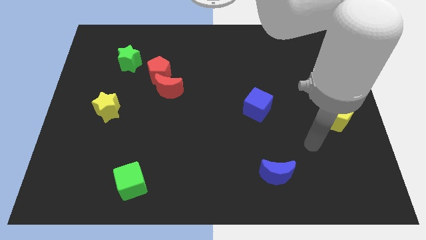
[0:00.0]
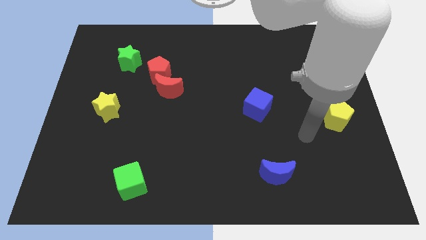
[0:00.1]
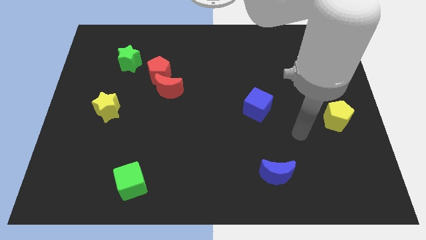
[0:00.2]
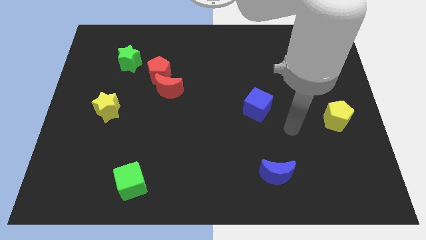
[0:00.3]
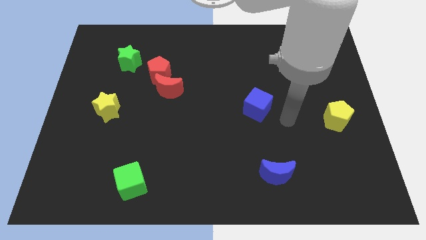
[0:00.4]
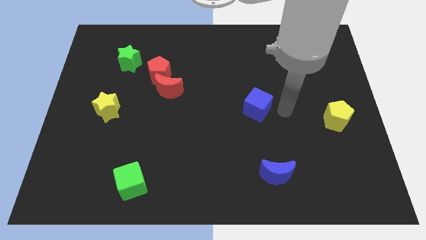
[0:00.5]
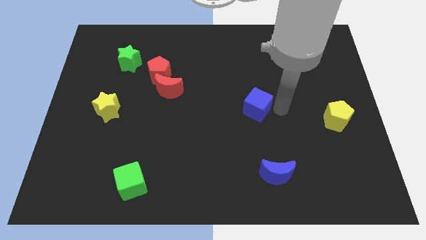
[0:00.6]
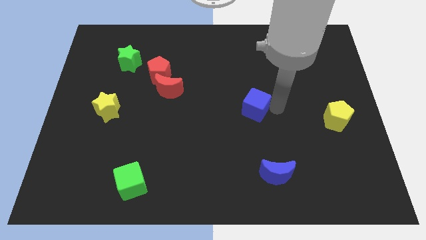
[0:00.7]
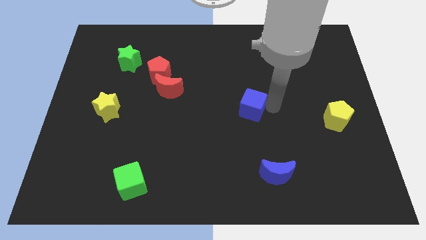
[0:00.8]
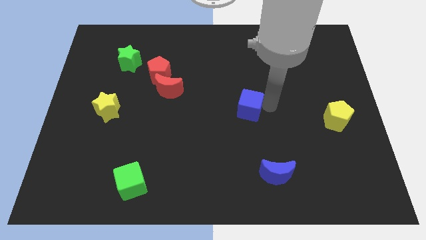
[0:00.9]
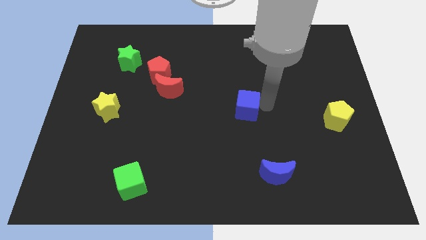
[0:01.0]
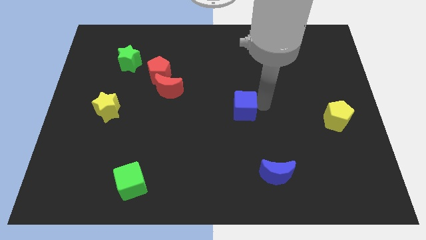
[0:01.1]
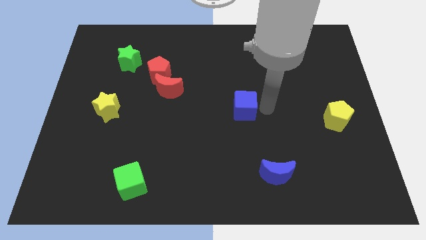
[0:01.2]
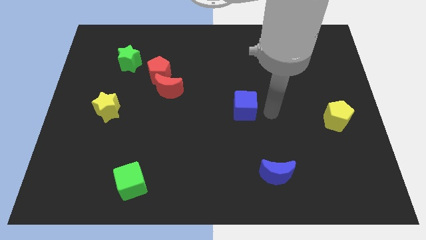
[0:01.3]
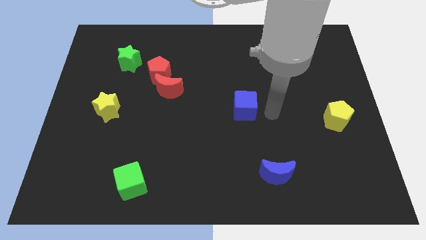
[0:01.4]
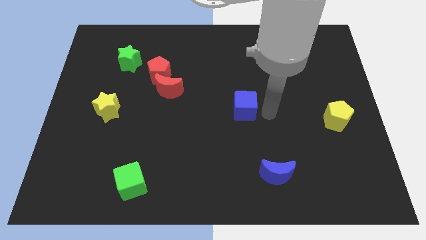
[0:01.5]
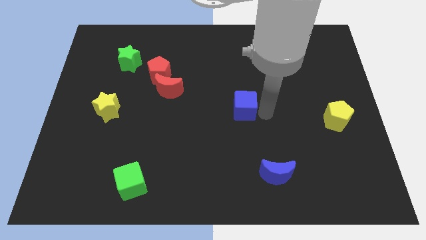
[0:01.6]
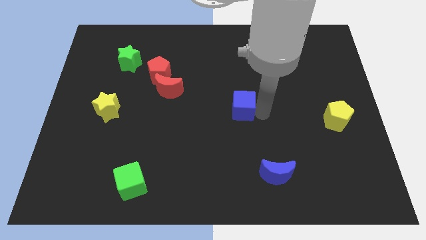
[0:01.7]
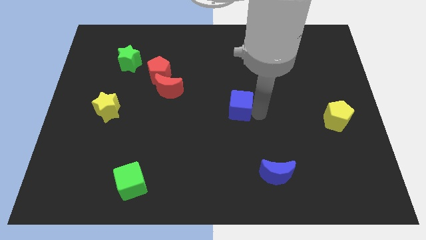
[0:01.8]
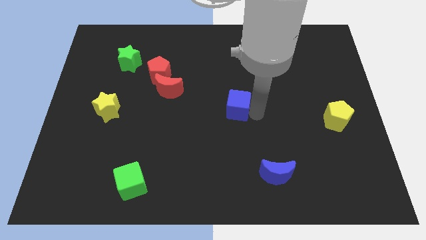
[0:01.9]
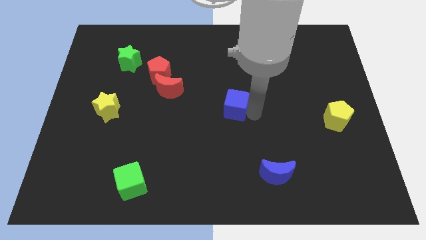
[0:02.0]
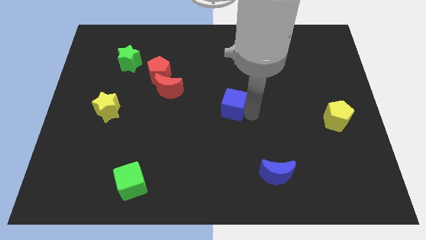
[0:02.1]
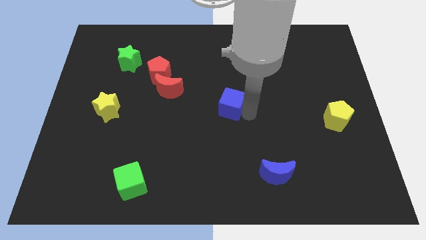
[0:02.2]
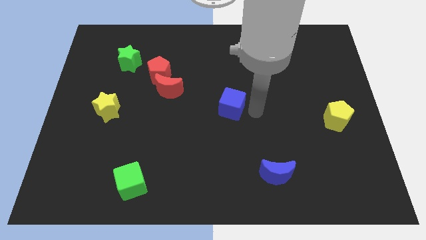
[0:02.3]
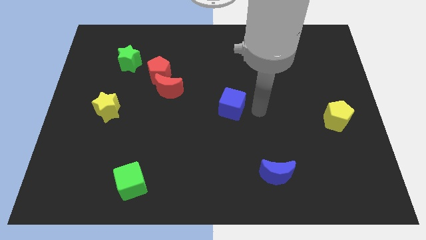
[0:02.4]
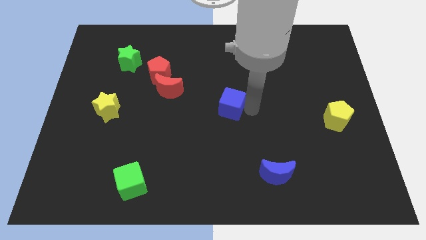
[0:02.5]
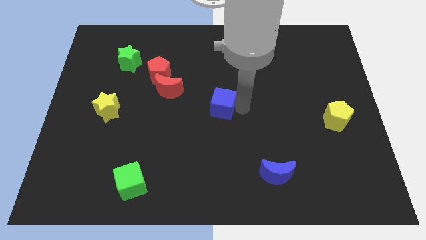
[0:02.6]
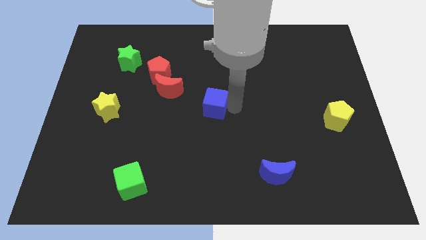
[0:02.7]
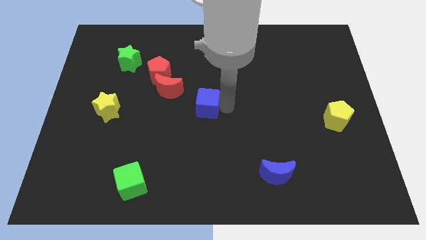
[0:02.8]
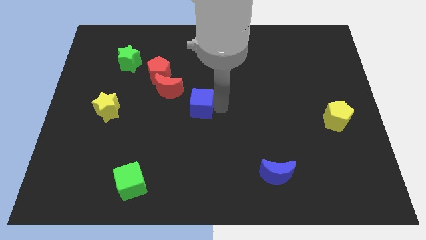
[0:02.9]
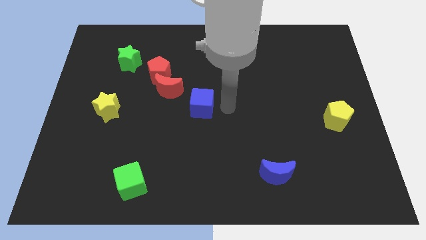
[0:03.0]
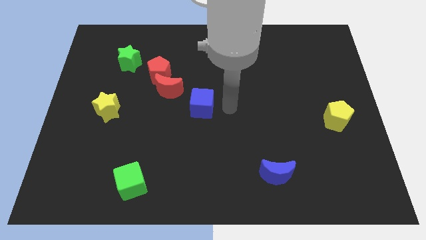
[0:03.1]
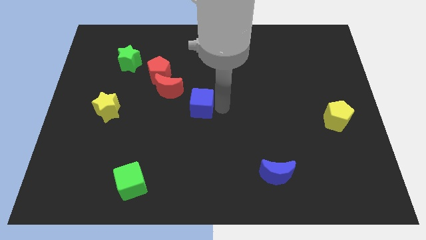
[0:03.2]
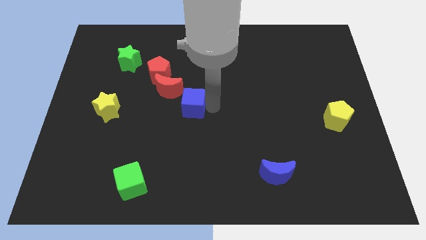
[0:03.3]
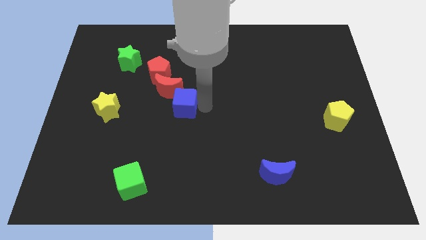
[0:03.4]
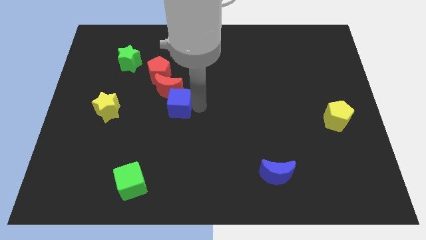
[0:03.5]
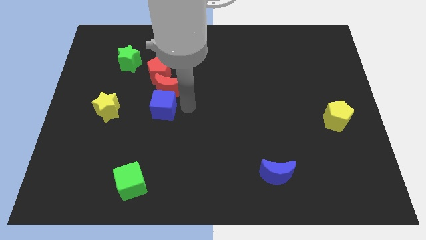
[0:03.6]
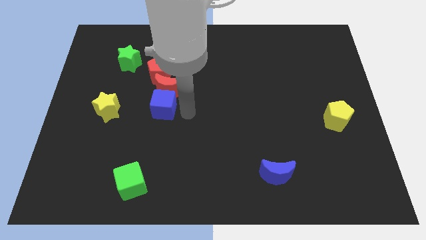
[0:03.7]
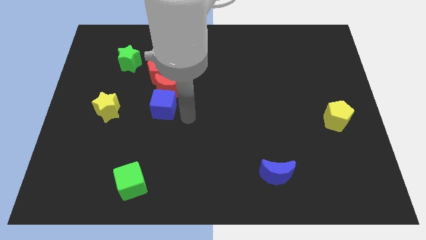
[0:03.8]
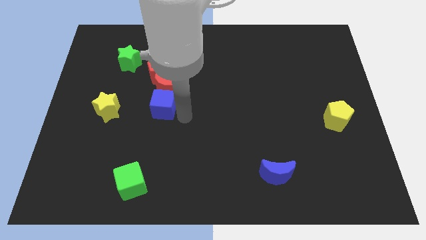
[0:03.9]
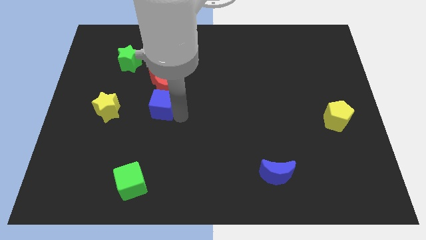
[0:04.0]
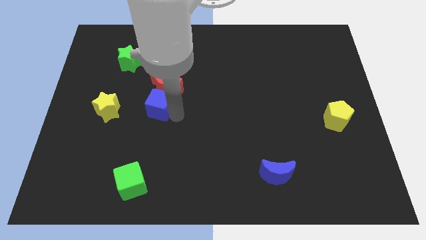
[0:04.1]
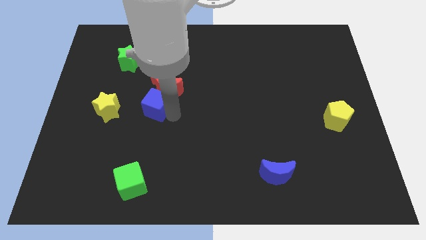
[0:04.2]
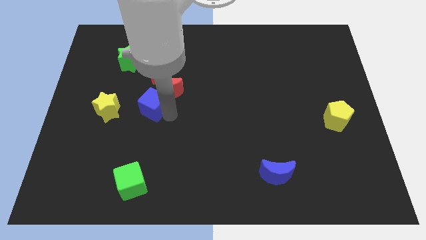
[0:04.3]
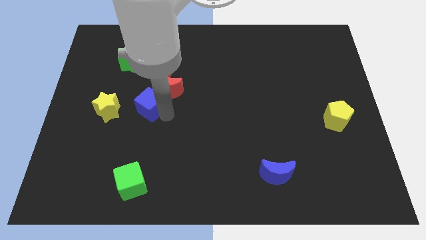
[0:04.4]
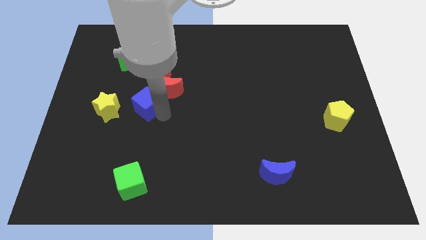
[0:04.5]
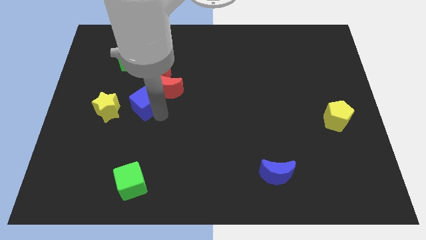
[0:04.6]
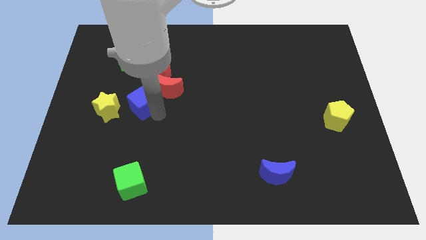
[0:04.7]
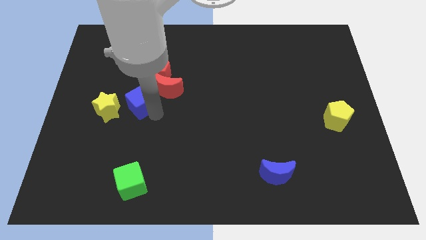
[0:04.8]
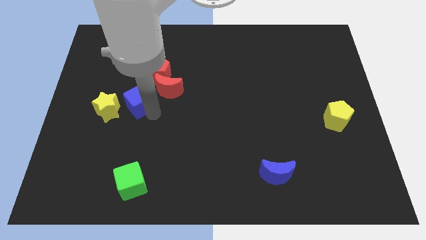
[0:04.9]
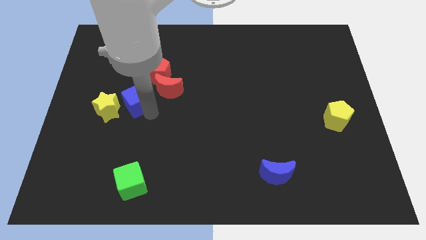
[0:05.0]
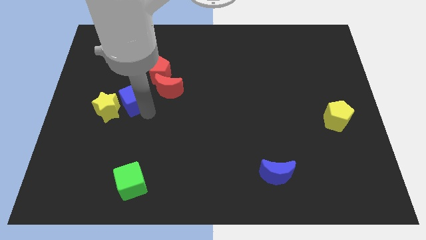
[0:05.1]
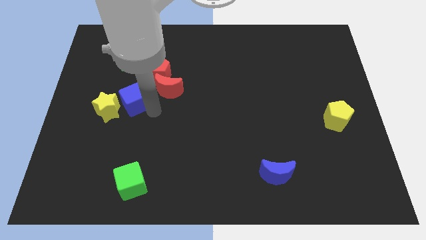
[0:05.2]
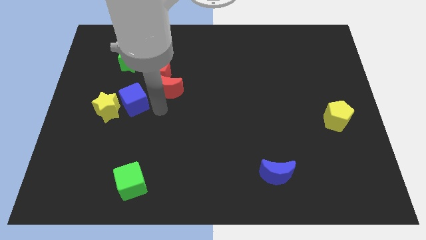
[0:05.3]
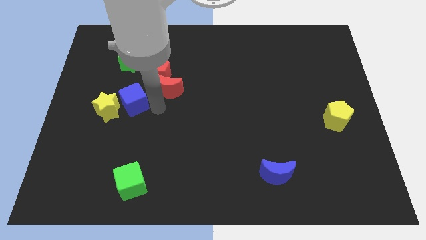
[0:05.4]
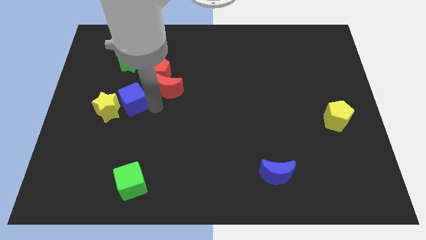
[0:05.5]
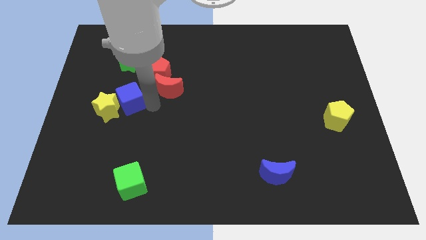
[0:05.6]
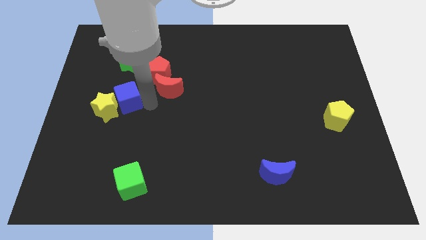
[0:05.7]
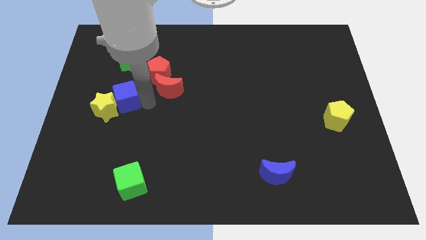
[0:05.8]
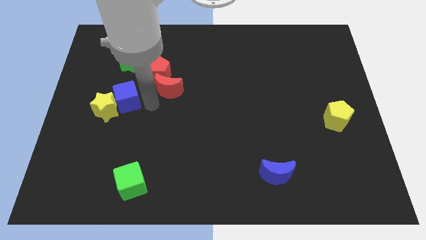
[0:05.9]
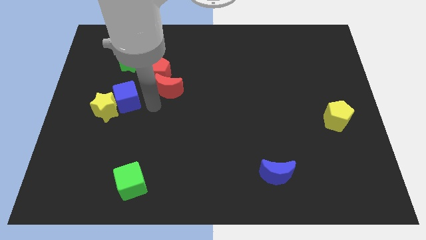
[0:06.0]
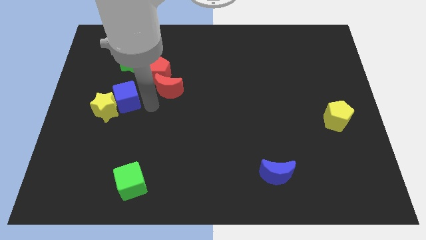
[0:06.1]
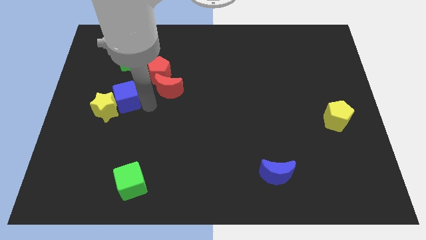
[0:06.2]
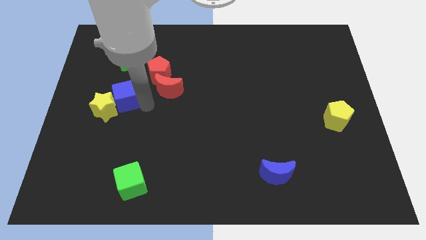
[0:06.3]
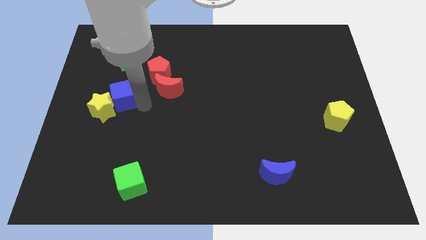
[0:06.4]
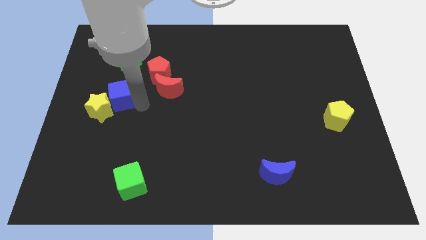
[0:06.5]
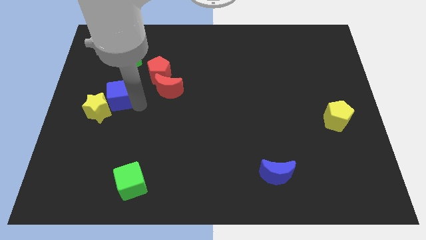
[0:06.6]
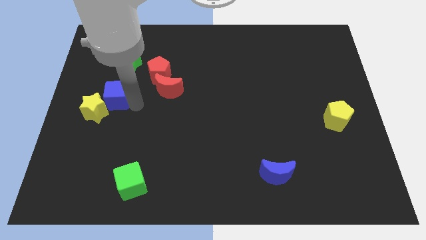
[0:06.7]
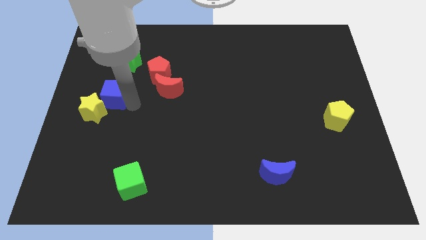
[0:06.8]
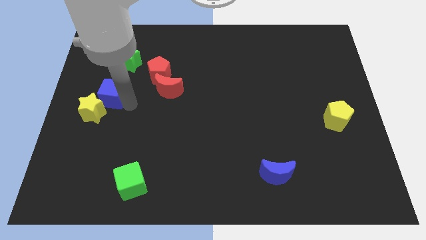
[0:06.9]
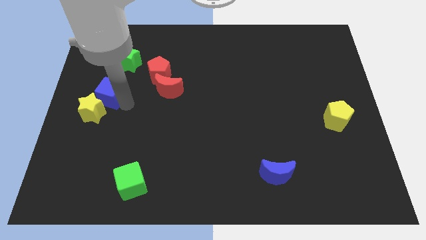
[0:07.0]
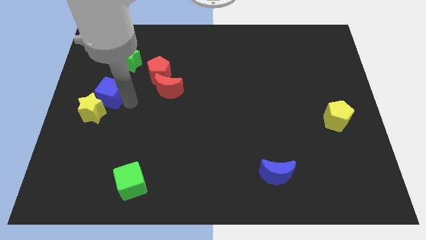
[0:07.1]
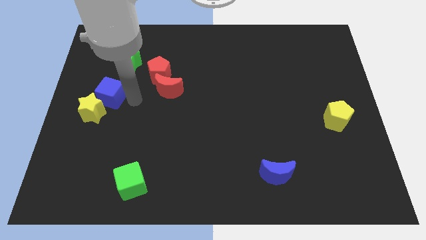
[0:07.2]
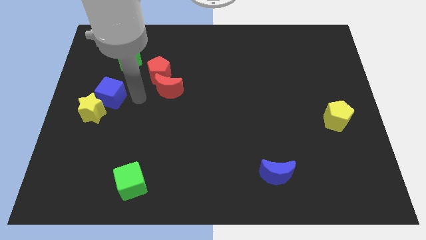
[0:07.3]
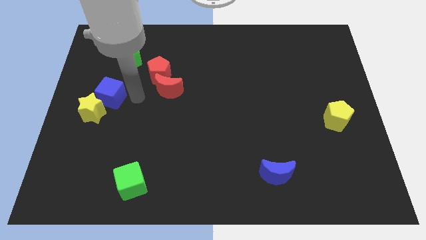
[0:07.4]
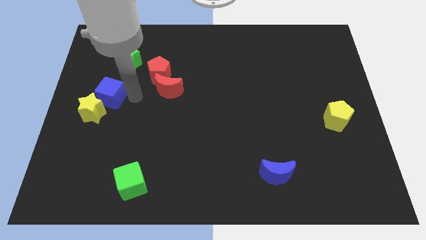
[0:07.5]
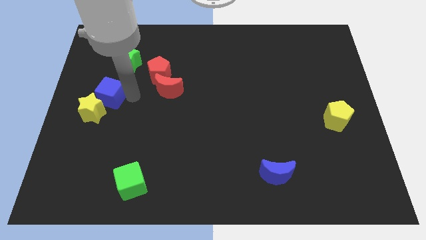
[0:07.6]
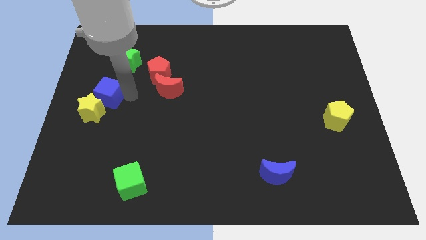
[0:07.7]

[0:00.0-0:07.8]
push the blue cube to the center left
